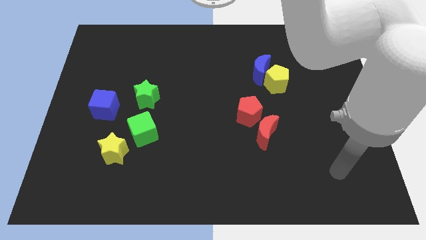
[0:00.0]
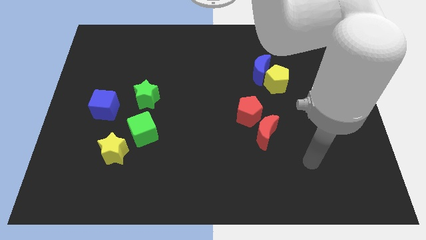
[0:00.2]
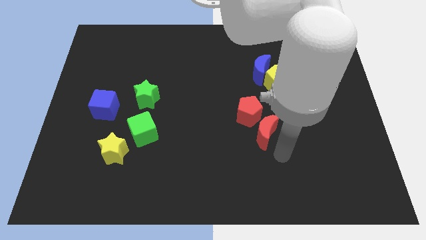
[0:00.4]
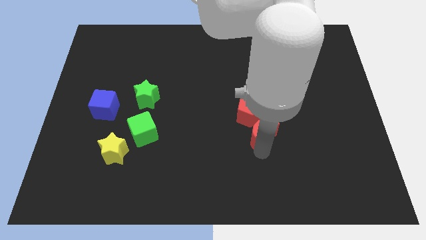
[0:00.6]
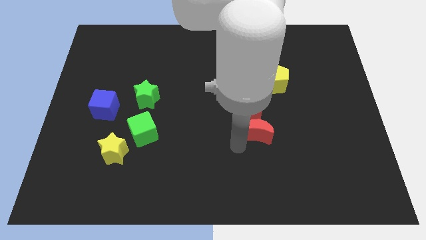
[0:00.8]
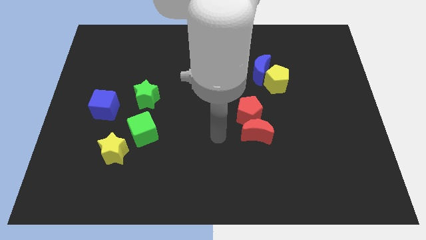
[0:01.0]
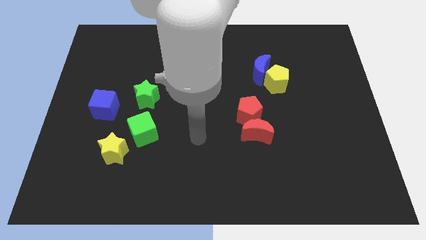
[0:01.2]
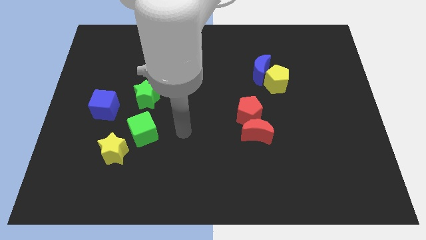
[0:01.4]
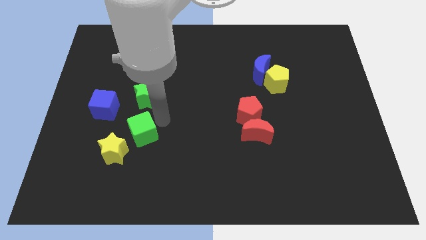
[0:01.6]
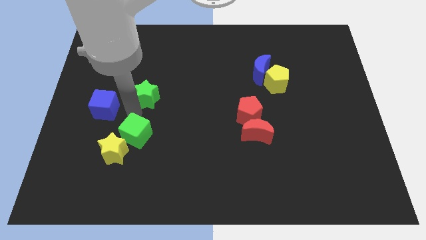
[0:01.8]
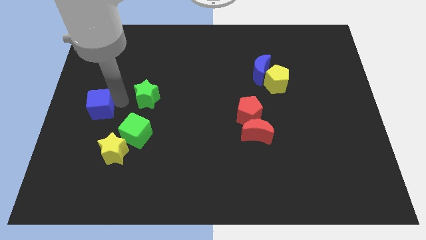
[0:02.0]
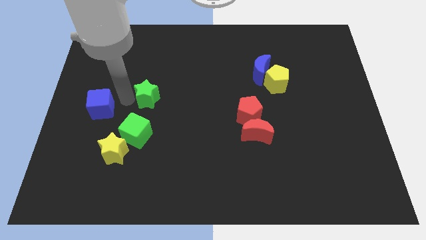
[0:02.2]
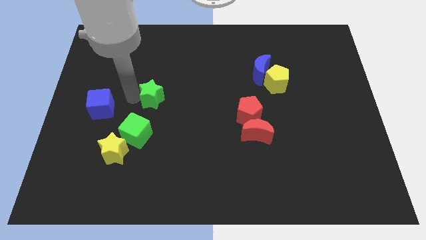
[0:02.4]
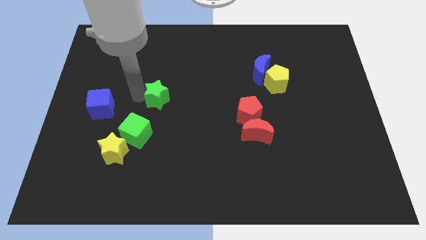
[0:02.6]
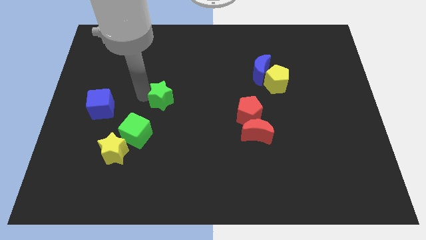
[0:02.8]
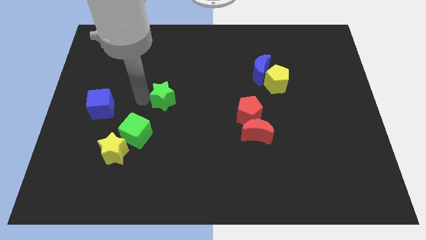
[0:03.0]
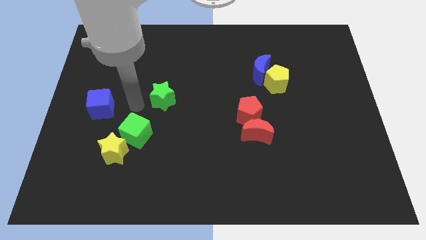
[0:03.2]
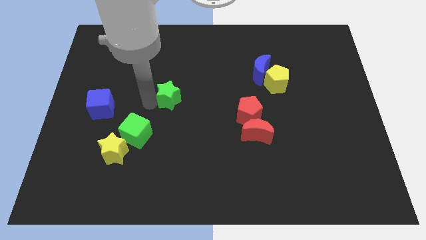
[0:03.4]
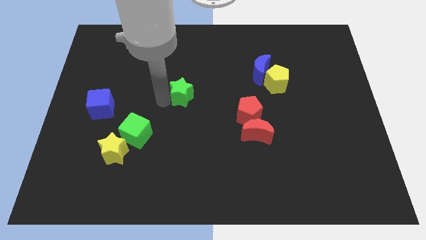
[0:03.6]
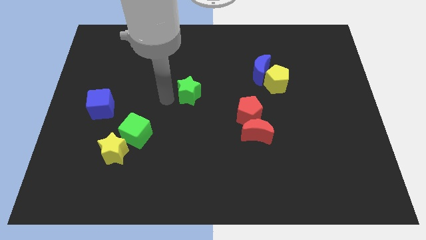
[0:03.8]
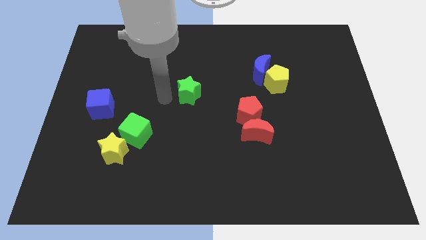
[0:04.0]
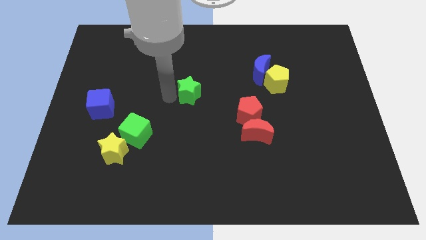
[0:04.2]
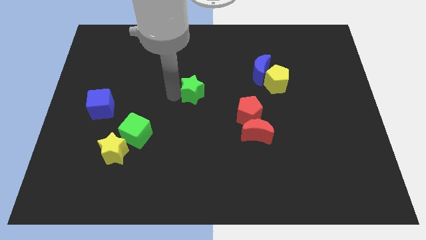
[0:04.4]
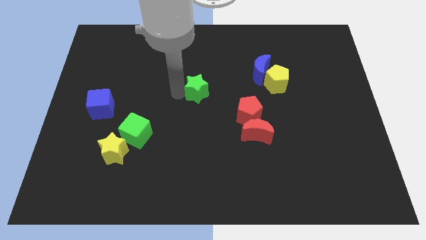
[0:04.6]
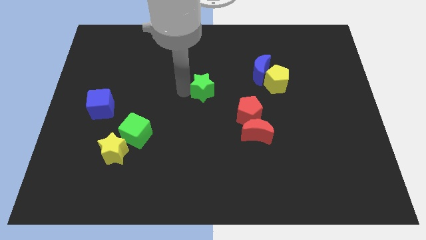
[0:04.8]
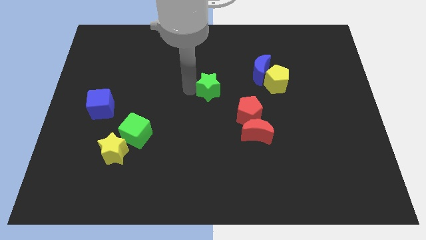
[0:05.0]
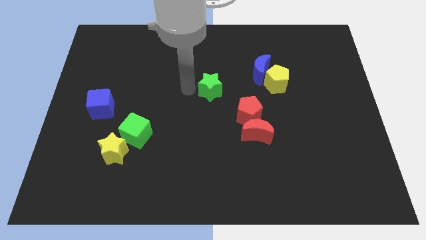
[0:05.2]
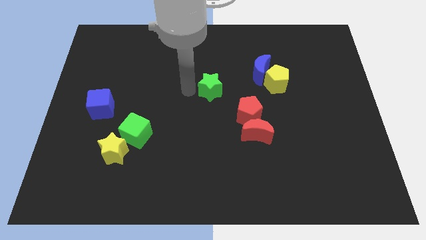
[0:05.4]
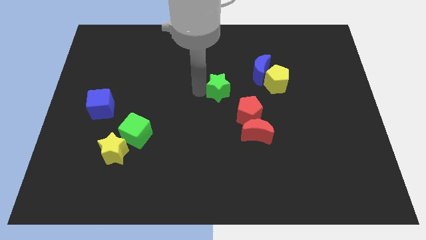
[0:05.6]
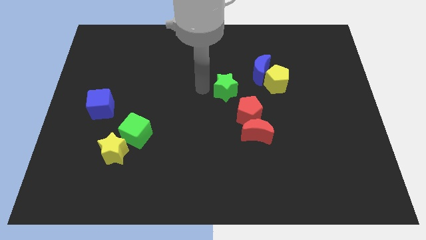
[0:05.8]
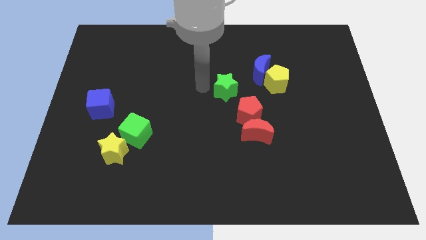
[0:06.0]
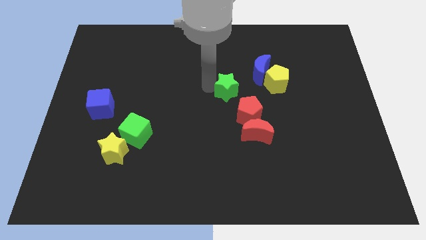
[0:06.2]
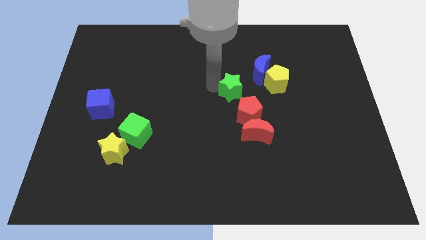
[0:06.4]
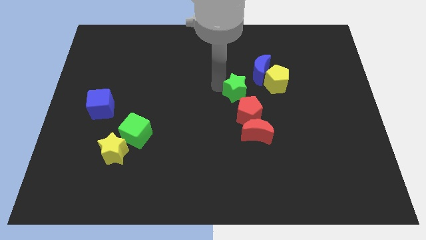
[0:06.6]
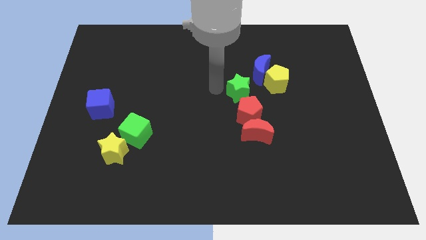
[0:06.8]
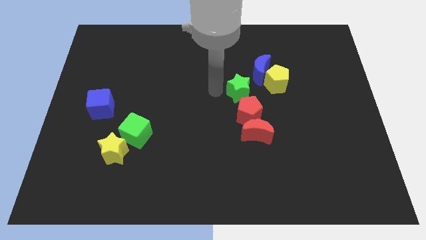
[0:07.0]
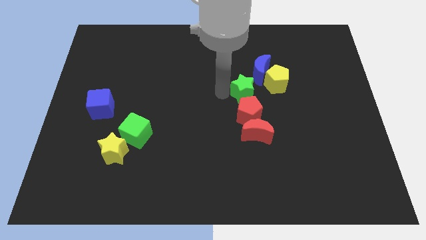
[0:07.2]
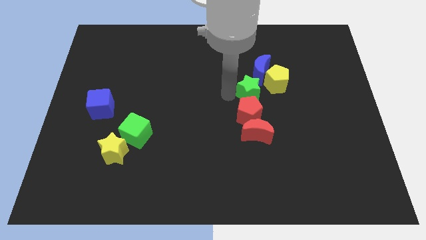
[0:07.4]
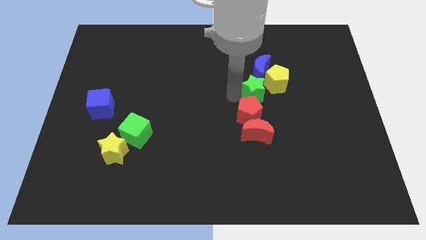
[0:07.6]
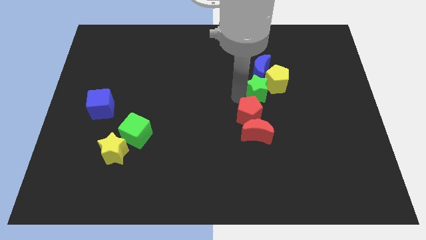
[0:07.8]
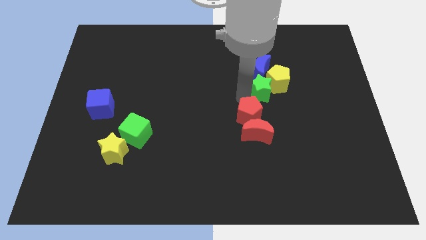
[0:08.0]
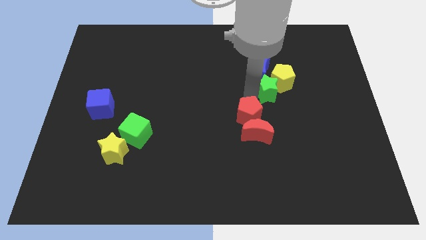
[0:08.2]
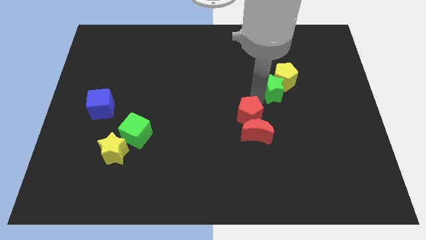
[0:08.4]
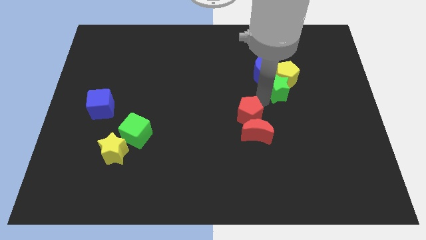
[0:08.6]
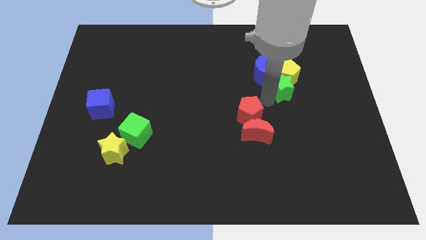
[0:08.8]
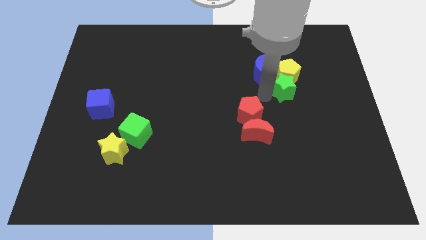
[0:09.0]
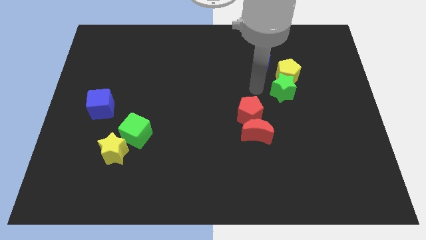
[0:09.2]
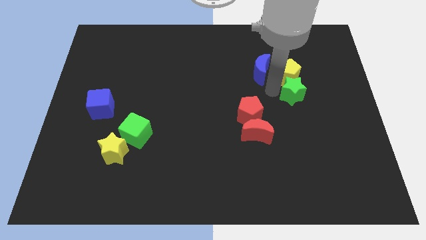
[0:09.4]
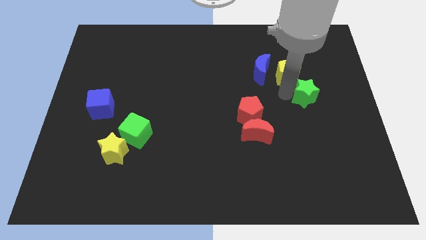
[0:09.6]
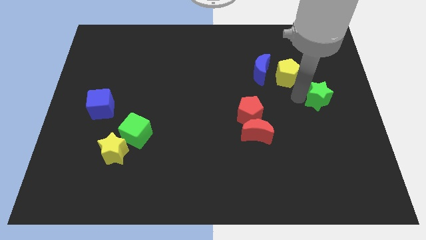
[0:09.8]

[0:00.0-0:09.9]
slide the green star to the right side of the board

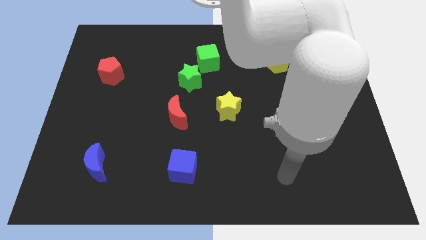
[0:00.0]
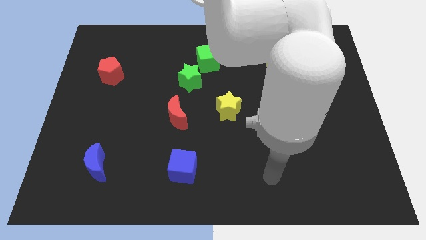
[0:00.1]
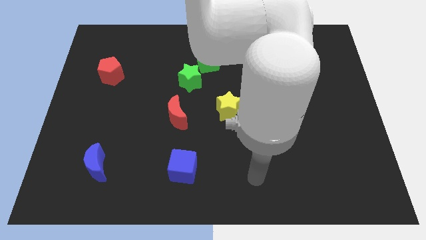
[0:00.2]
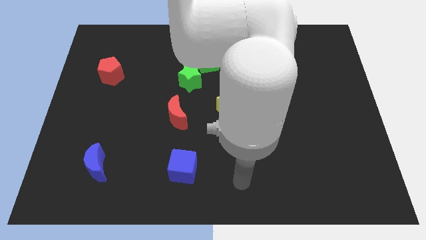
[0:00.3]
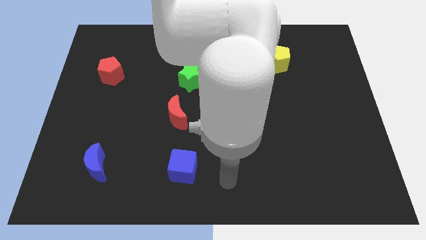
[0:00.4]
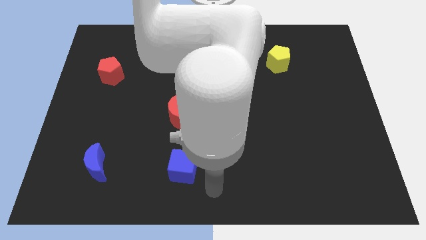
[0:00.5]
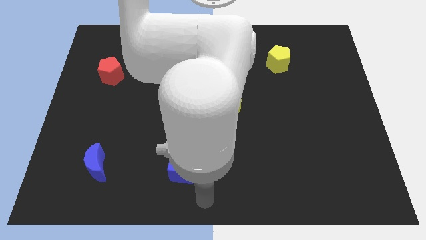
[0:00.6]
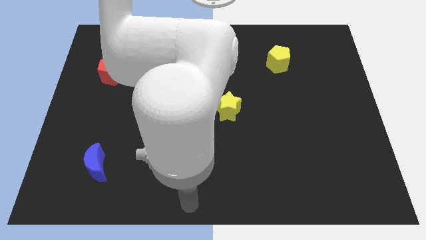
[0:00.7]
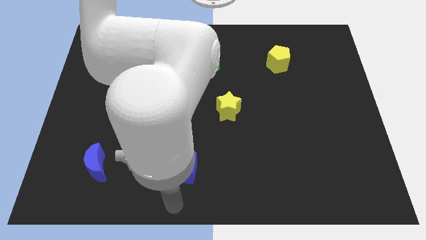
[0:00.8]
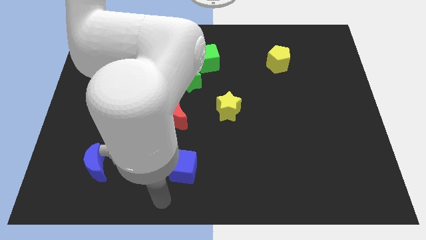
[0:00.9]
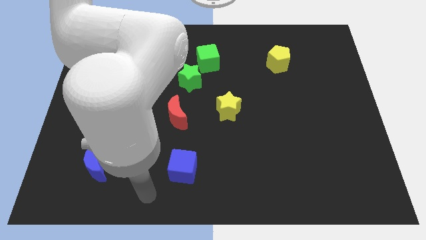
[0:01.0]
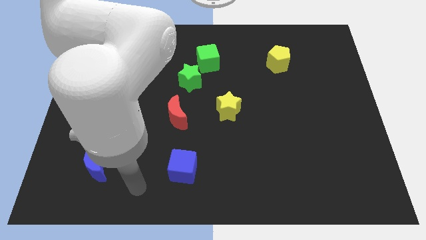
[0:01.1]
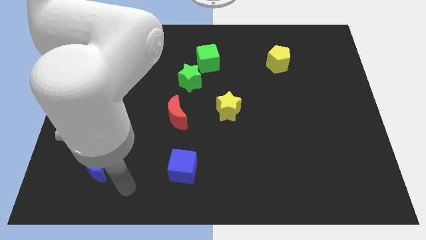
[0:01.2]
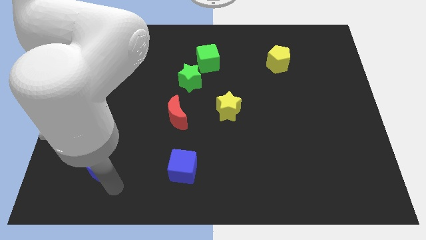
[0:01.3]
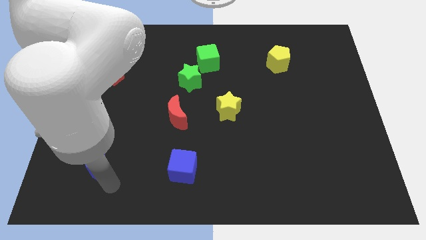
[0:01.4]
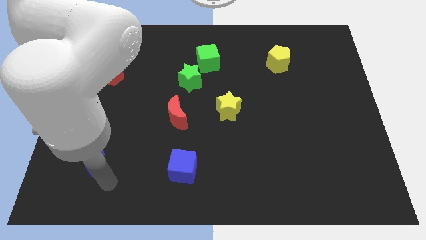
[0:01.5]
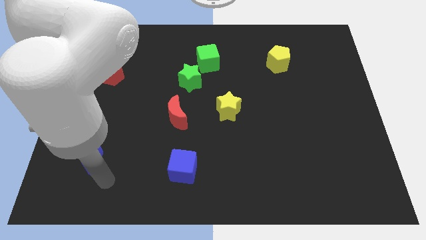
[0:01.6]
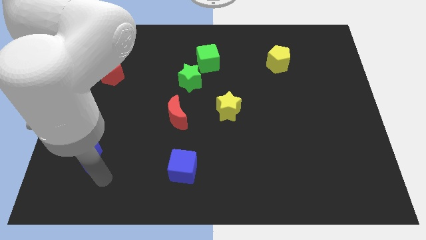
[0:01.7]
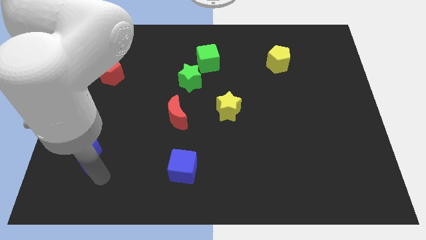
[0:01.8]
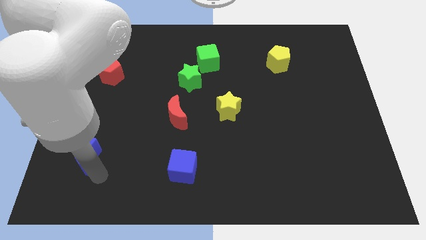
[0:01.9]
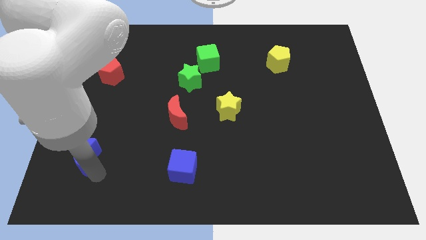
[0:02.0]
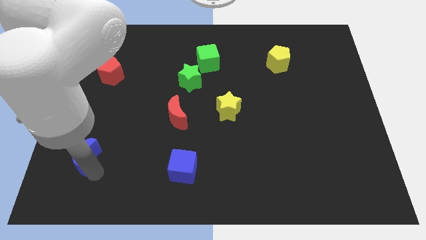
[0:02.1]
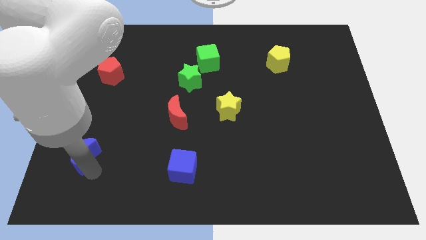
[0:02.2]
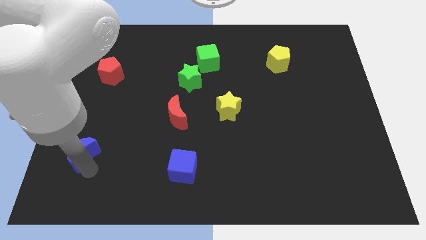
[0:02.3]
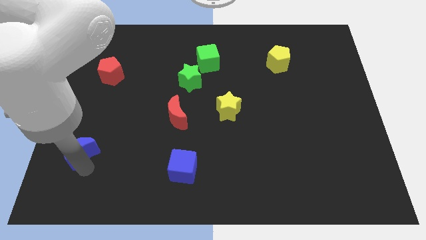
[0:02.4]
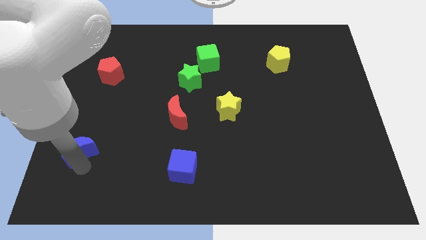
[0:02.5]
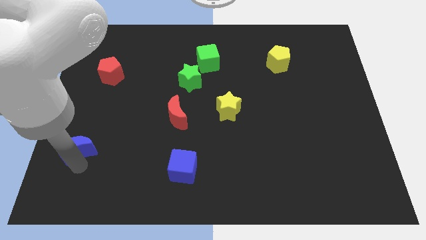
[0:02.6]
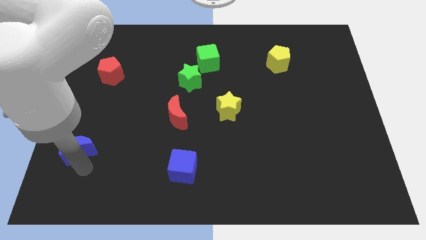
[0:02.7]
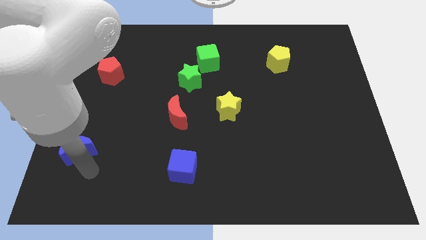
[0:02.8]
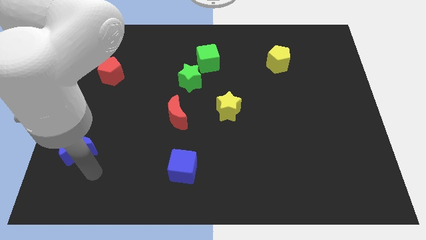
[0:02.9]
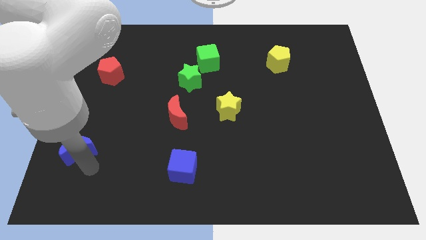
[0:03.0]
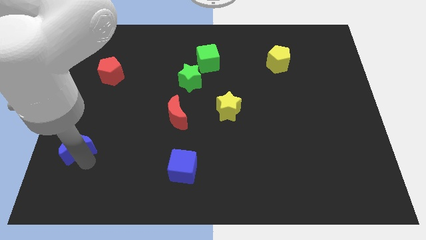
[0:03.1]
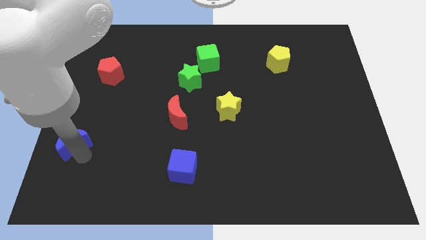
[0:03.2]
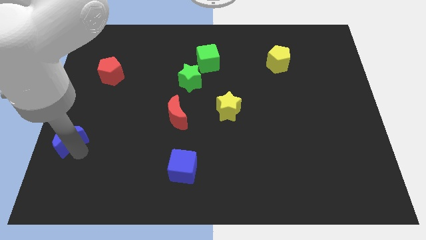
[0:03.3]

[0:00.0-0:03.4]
put the blue moon to the center left
